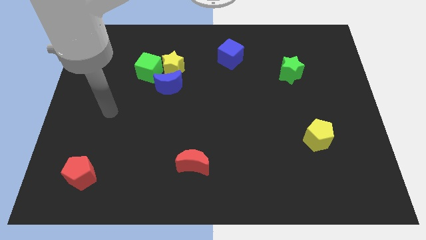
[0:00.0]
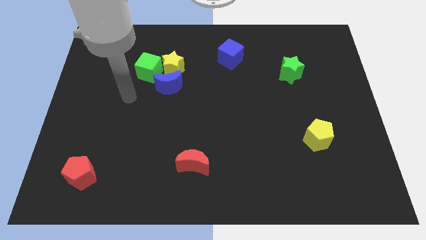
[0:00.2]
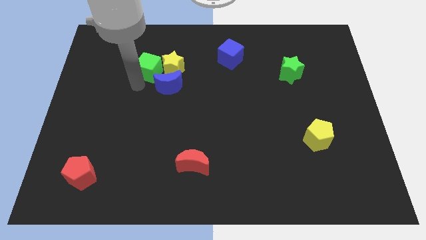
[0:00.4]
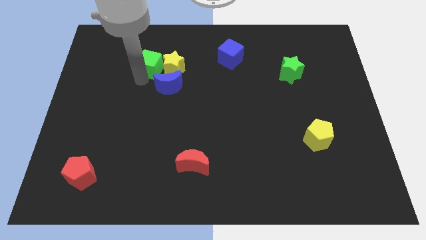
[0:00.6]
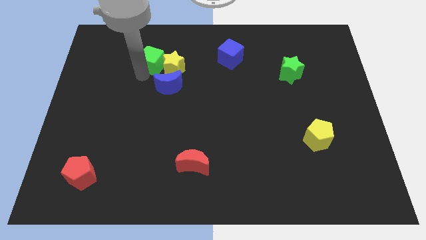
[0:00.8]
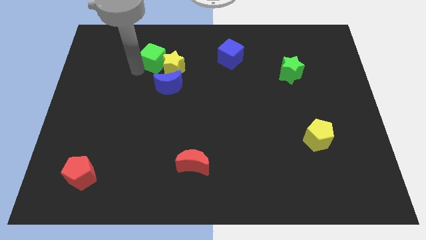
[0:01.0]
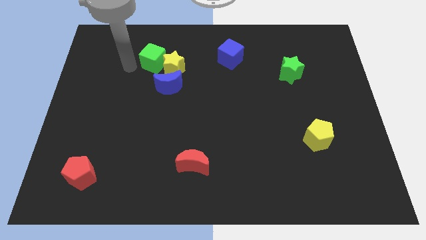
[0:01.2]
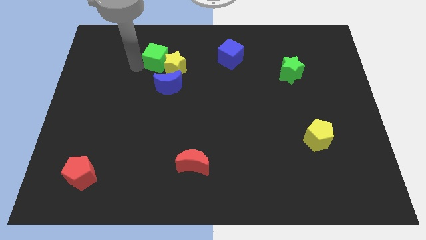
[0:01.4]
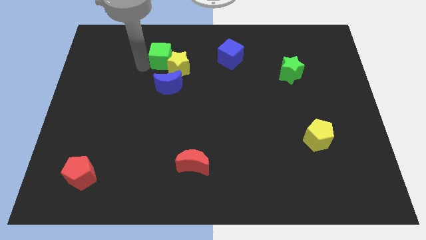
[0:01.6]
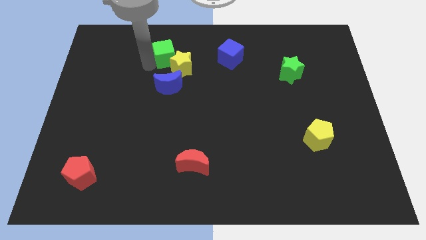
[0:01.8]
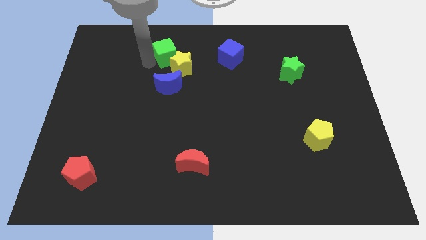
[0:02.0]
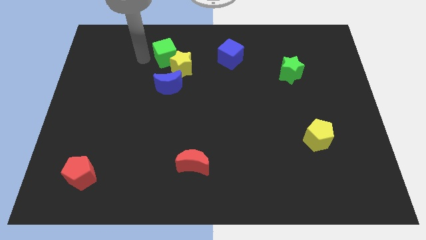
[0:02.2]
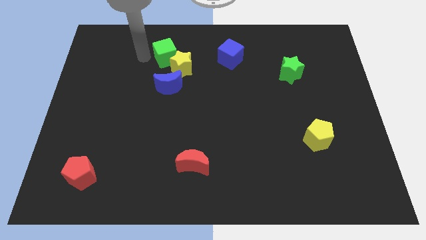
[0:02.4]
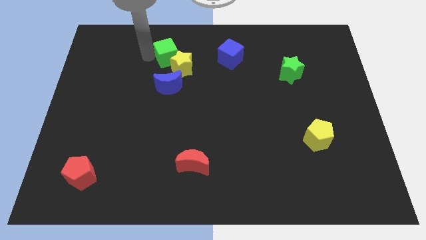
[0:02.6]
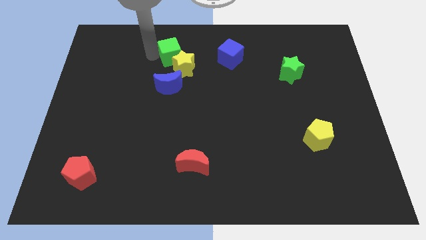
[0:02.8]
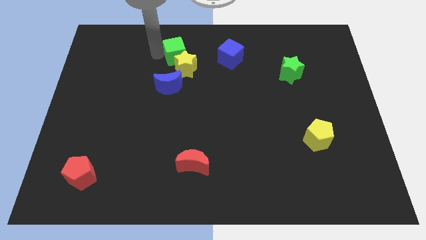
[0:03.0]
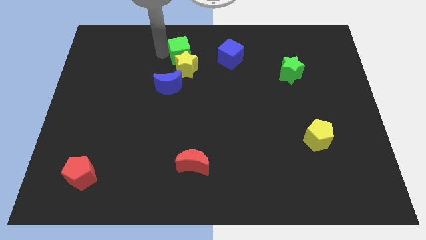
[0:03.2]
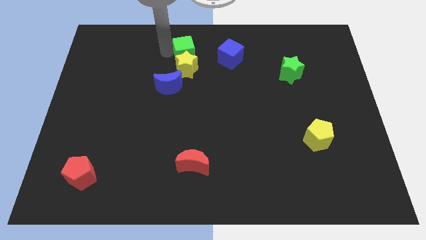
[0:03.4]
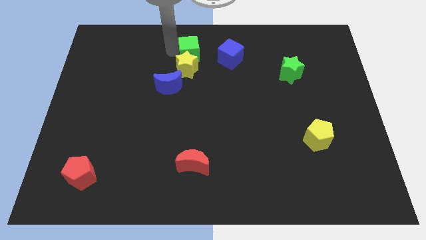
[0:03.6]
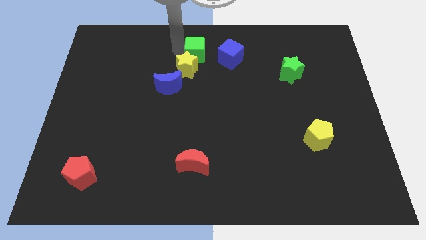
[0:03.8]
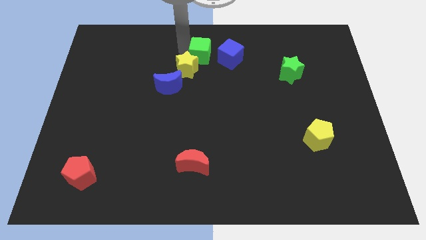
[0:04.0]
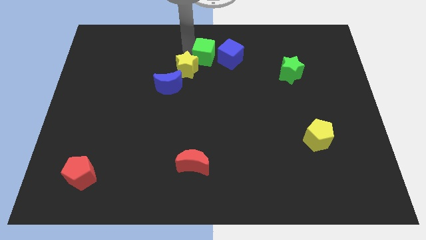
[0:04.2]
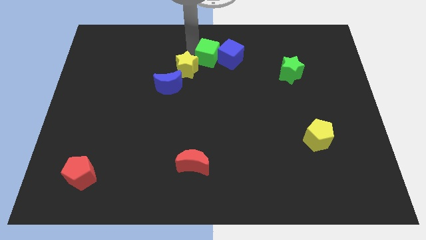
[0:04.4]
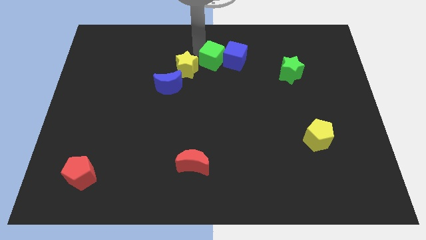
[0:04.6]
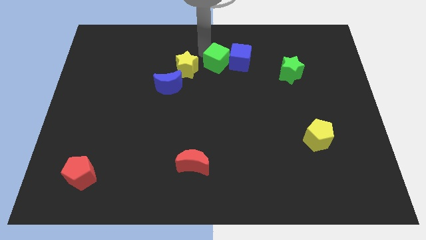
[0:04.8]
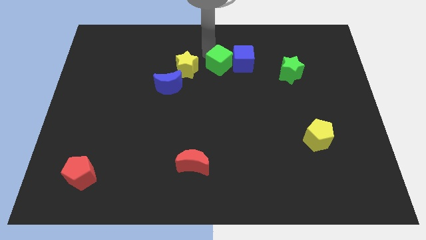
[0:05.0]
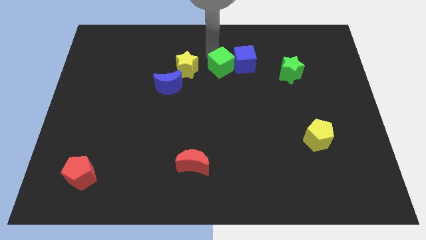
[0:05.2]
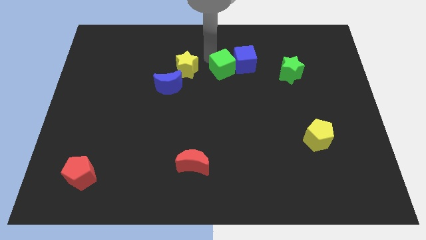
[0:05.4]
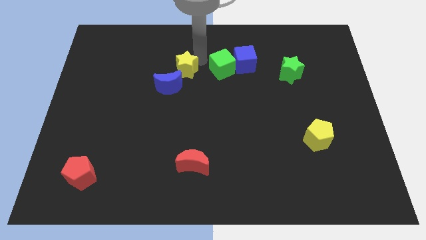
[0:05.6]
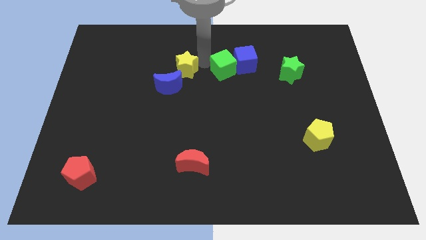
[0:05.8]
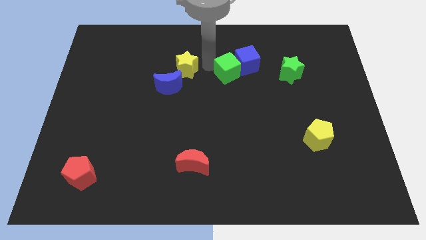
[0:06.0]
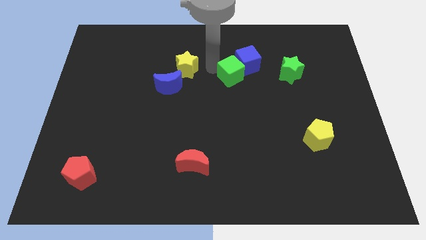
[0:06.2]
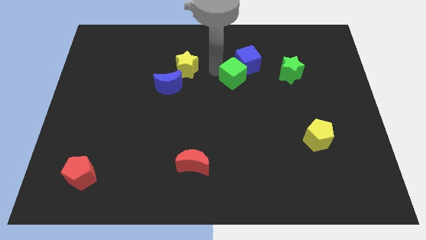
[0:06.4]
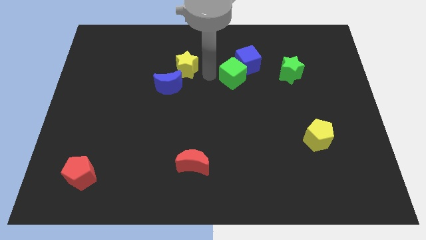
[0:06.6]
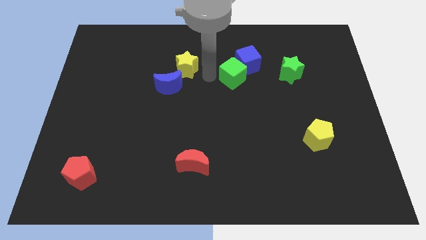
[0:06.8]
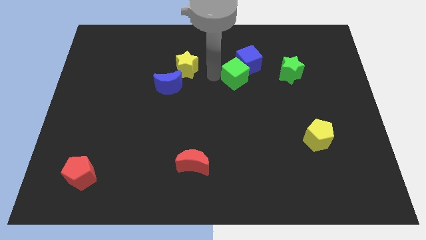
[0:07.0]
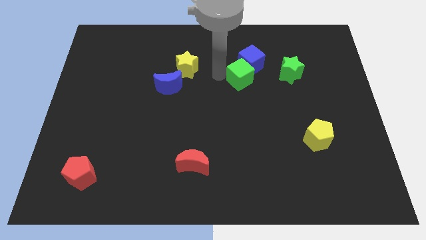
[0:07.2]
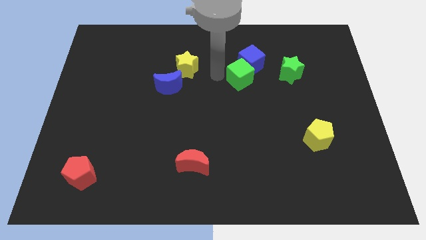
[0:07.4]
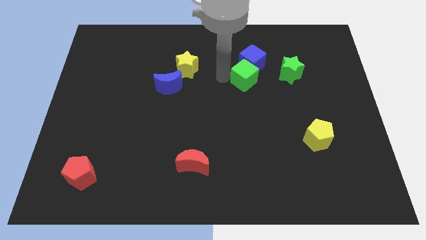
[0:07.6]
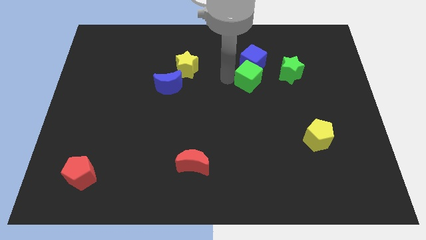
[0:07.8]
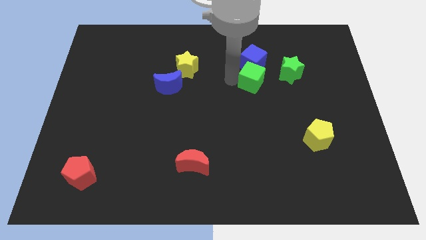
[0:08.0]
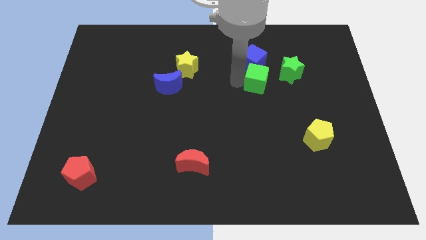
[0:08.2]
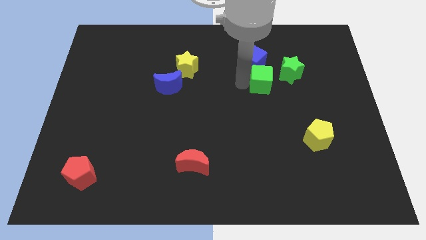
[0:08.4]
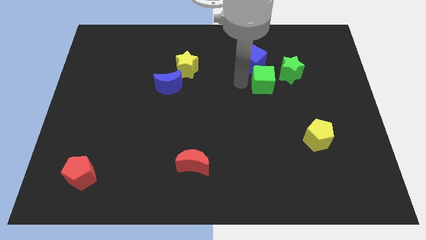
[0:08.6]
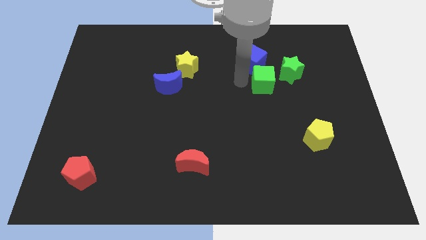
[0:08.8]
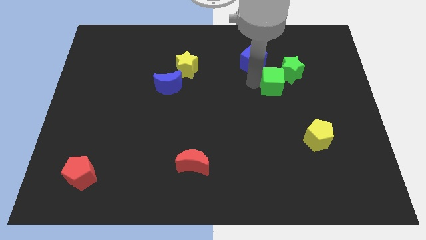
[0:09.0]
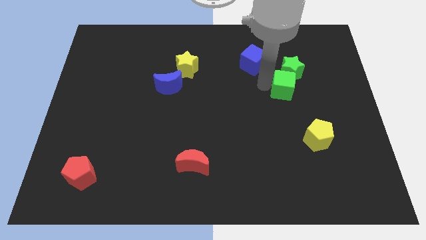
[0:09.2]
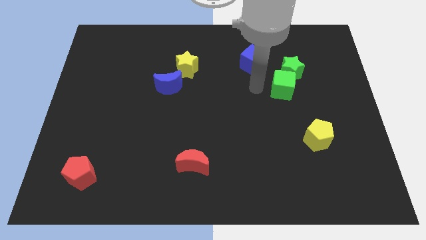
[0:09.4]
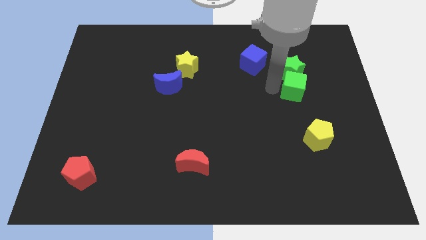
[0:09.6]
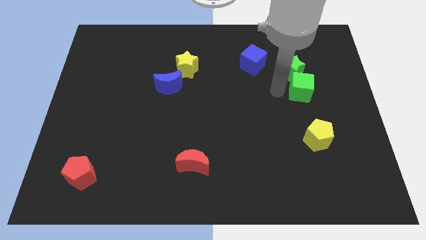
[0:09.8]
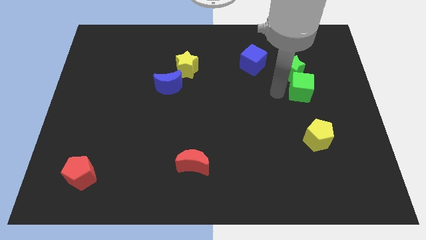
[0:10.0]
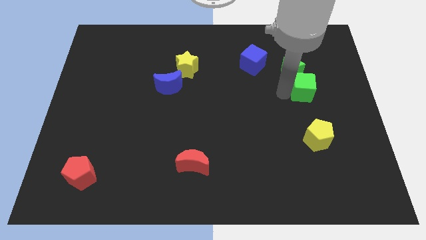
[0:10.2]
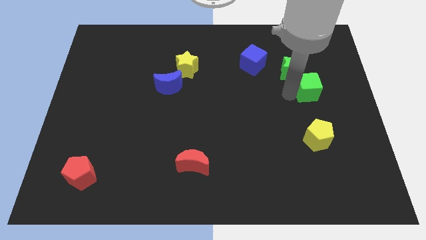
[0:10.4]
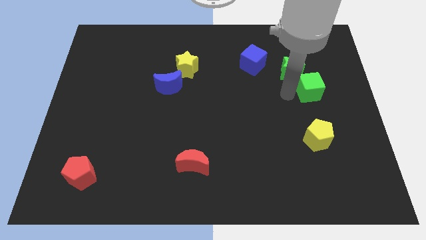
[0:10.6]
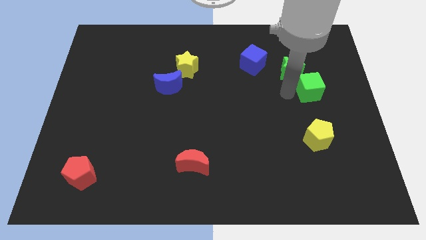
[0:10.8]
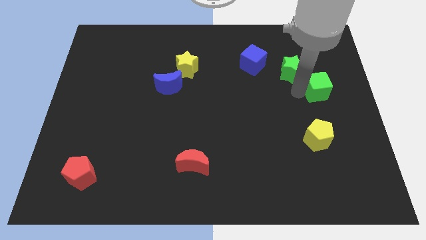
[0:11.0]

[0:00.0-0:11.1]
put the green cube to the right side of the board

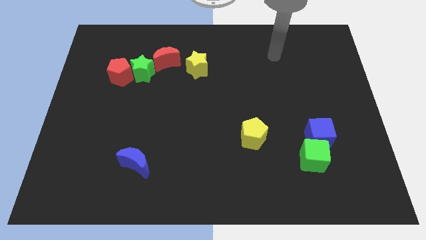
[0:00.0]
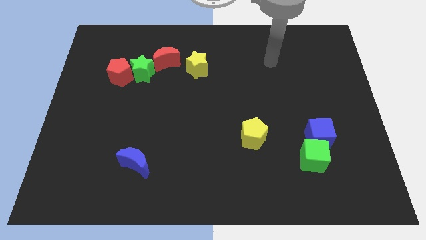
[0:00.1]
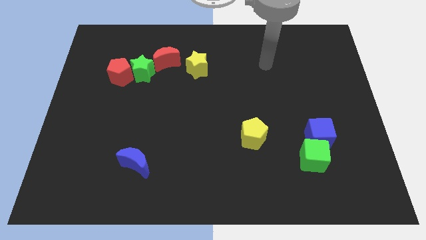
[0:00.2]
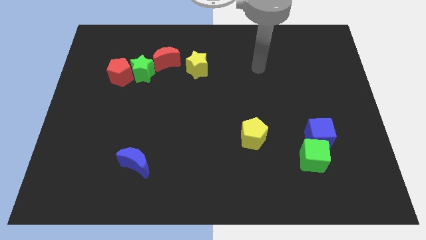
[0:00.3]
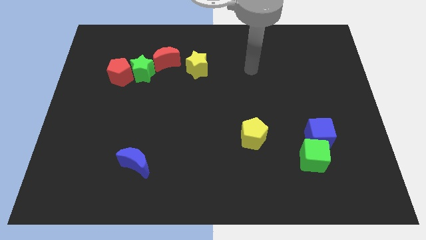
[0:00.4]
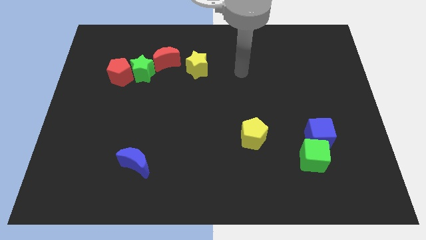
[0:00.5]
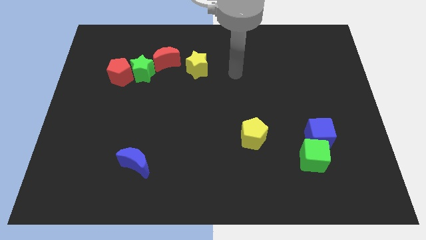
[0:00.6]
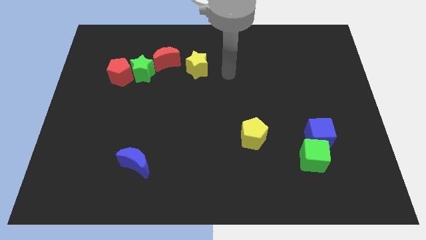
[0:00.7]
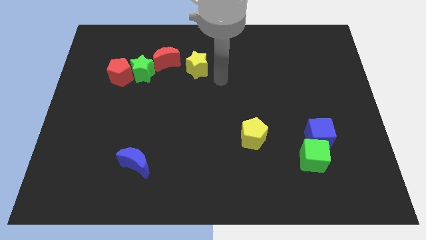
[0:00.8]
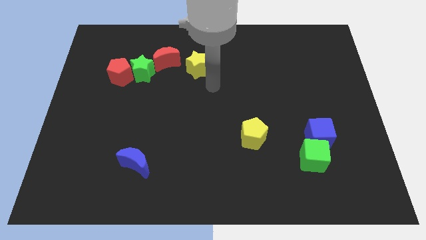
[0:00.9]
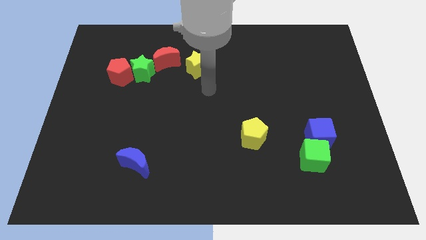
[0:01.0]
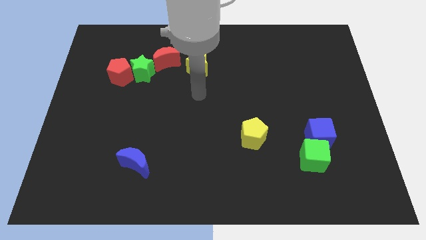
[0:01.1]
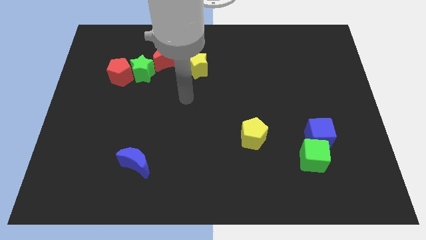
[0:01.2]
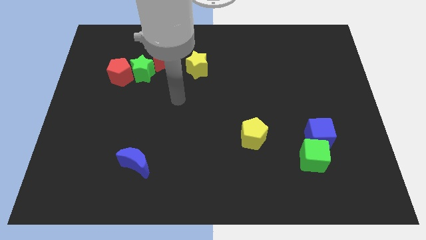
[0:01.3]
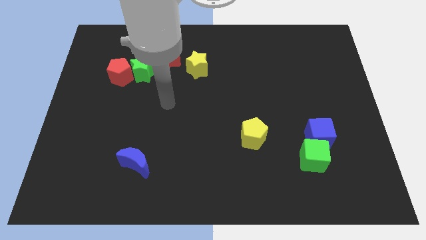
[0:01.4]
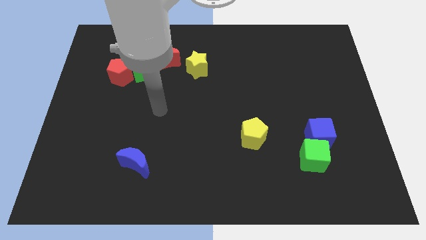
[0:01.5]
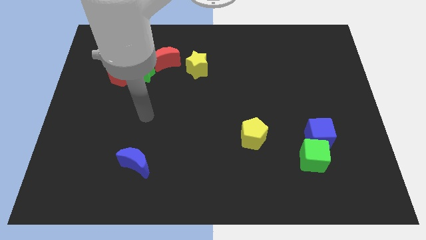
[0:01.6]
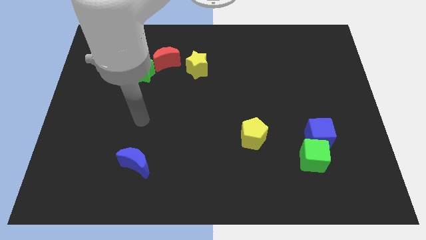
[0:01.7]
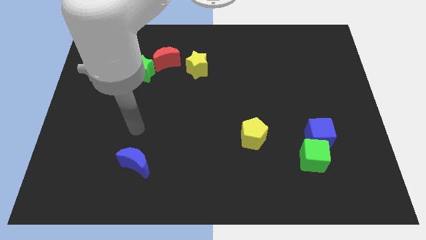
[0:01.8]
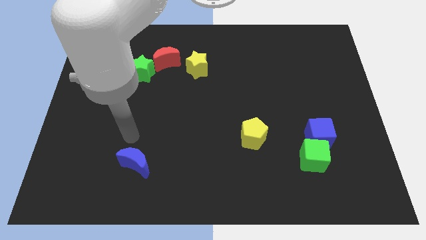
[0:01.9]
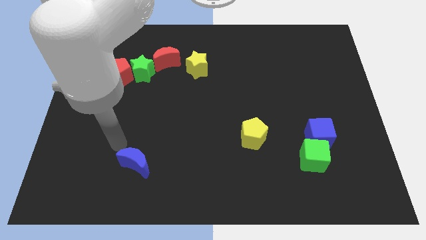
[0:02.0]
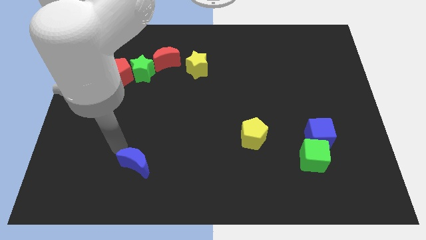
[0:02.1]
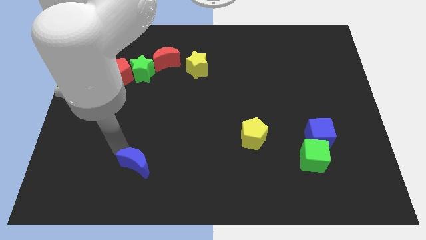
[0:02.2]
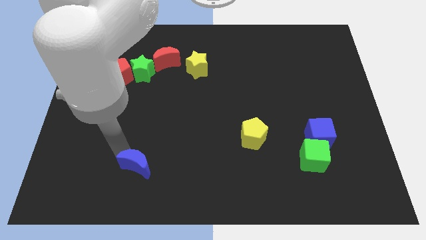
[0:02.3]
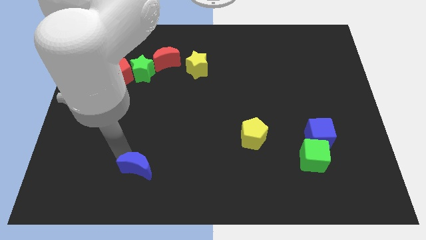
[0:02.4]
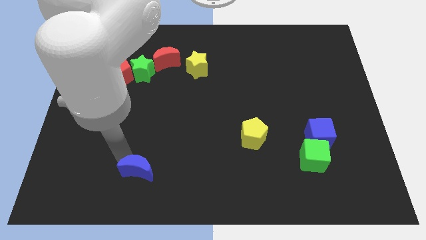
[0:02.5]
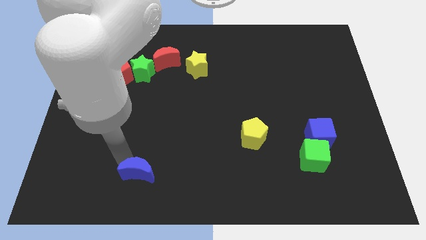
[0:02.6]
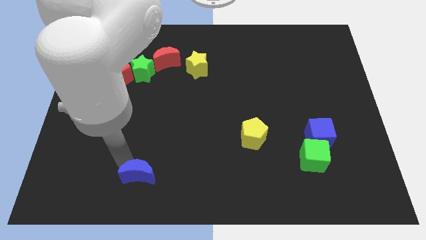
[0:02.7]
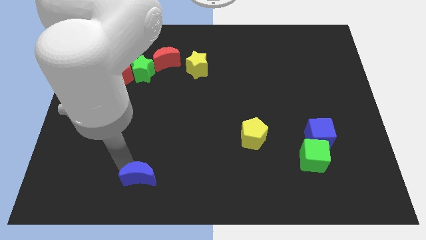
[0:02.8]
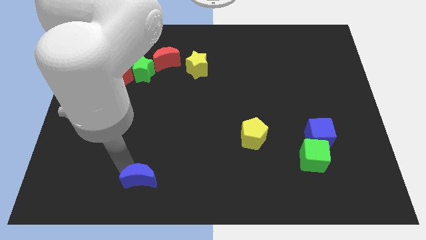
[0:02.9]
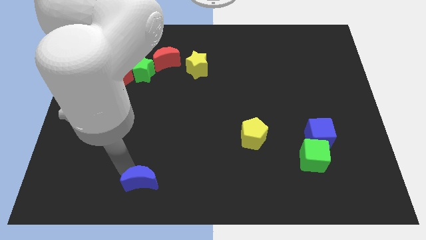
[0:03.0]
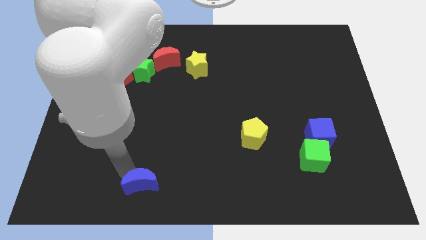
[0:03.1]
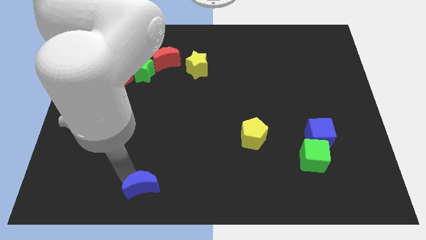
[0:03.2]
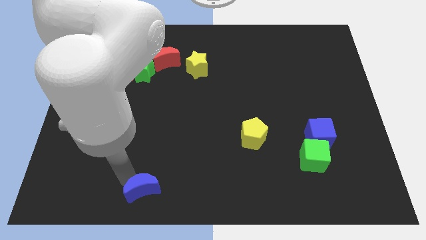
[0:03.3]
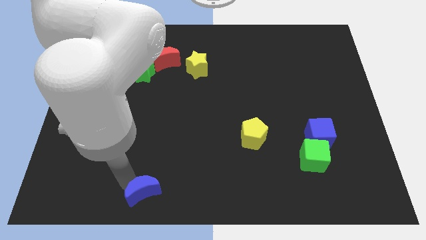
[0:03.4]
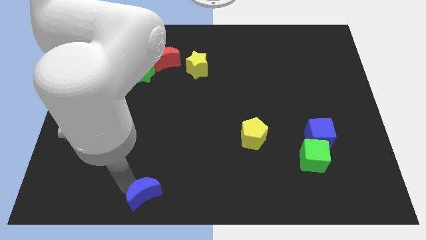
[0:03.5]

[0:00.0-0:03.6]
push the blue moon to the bottom
